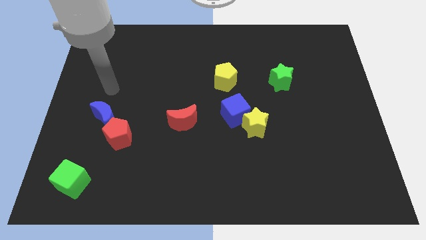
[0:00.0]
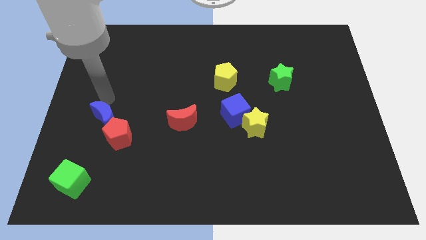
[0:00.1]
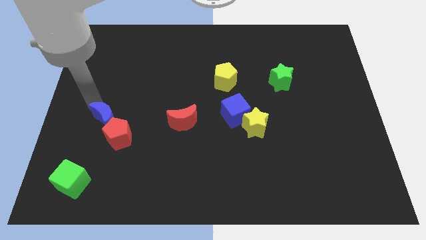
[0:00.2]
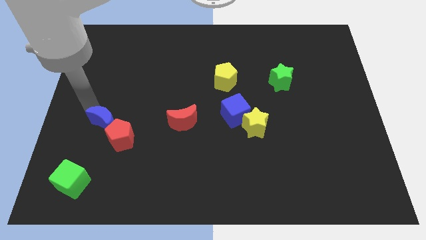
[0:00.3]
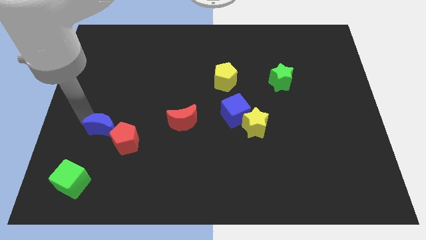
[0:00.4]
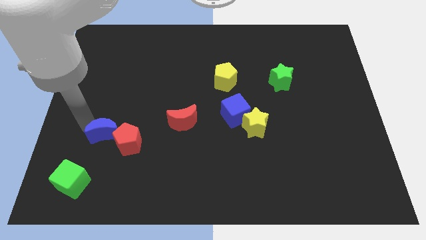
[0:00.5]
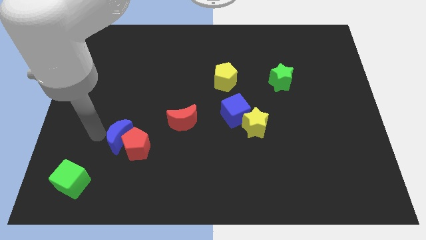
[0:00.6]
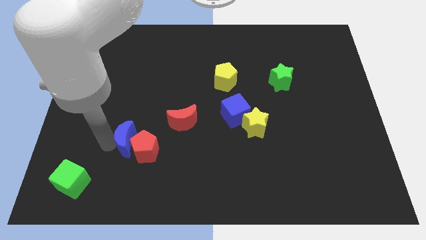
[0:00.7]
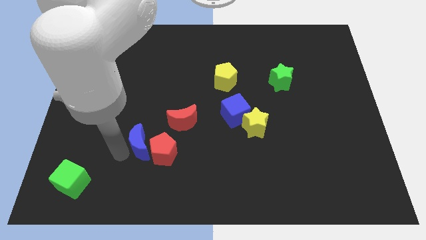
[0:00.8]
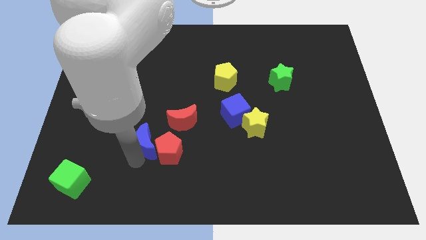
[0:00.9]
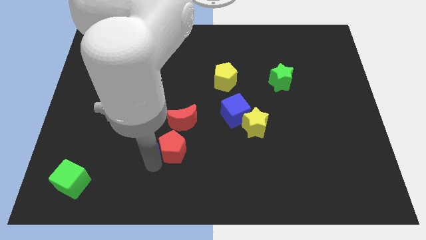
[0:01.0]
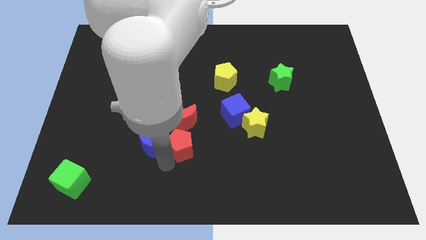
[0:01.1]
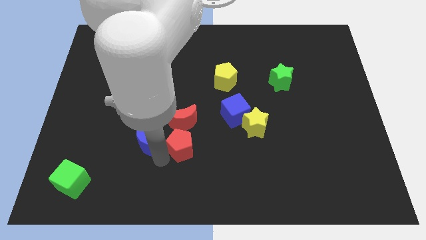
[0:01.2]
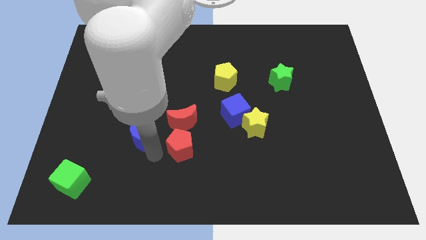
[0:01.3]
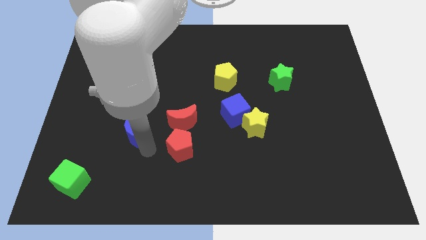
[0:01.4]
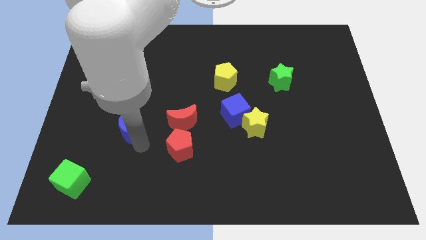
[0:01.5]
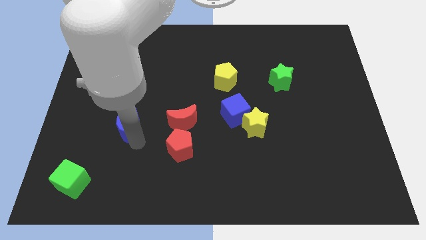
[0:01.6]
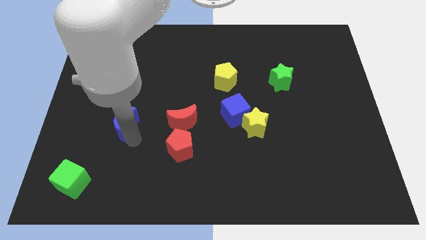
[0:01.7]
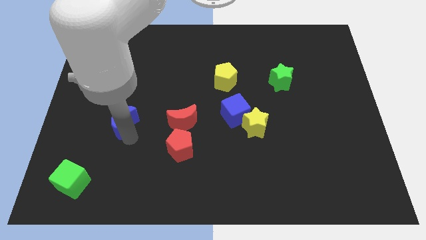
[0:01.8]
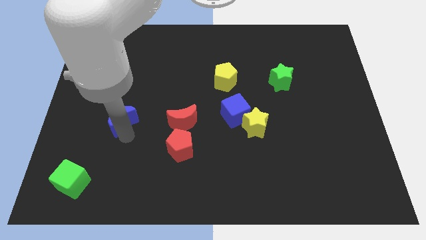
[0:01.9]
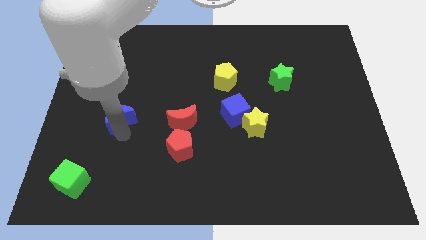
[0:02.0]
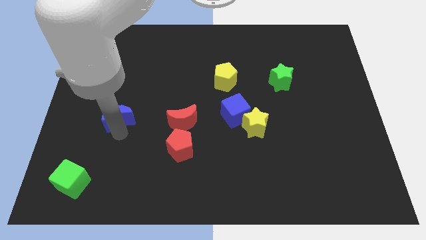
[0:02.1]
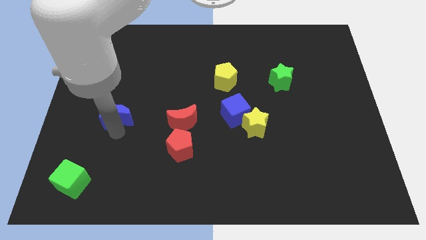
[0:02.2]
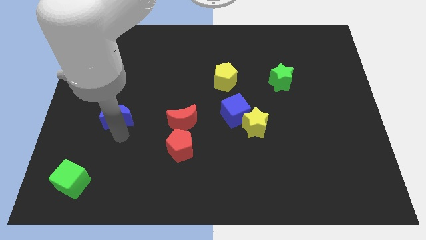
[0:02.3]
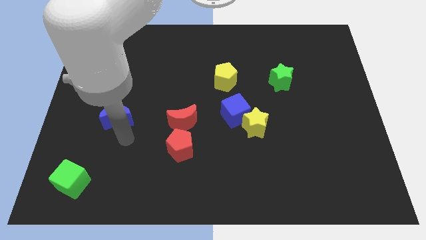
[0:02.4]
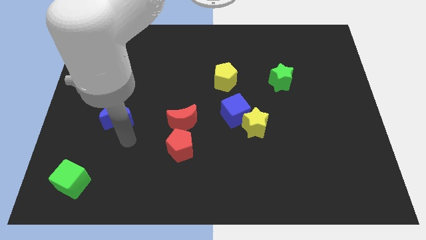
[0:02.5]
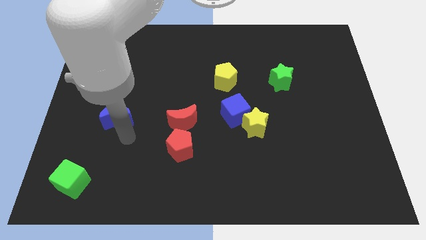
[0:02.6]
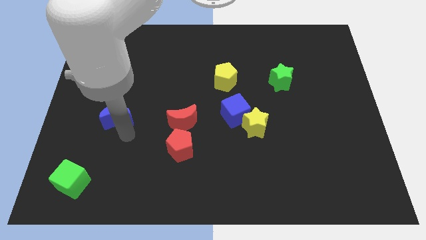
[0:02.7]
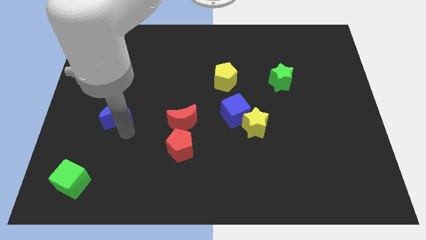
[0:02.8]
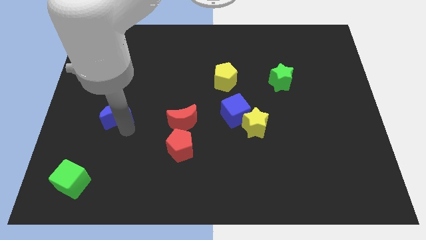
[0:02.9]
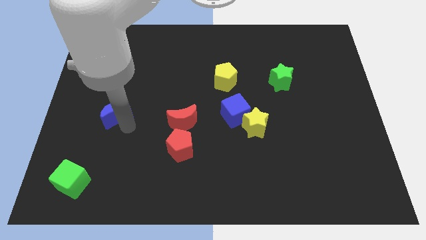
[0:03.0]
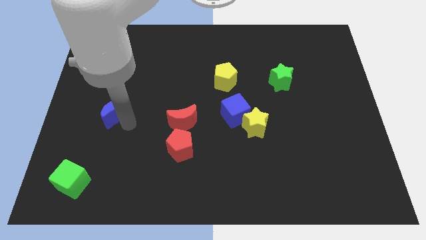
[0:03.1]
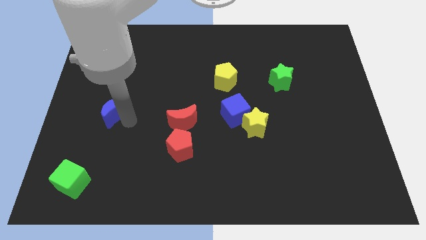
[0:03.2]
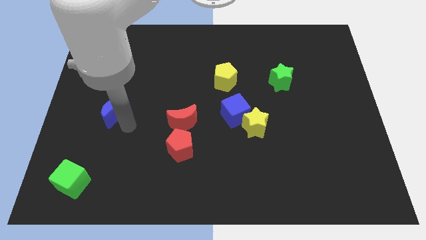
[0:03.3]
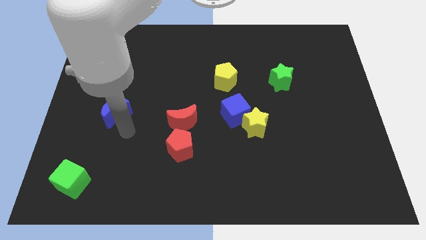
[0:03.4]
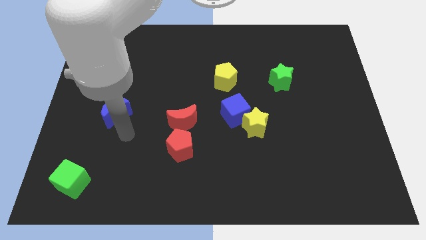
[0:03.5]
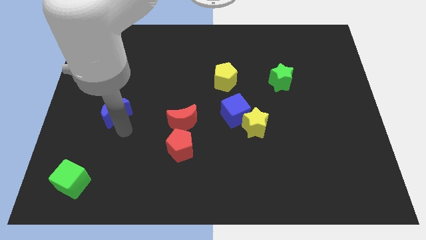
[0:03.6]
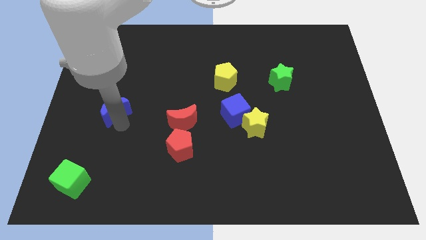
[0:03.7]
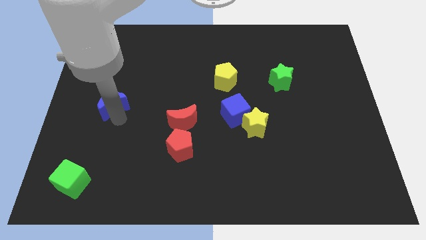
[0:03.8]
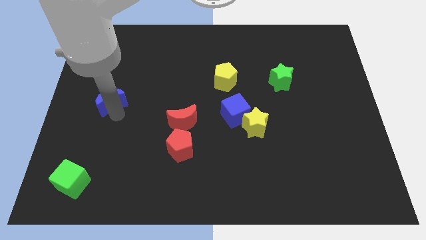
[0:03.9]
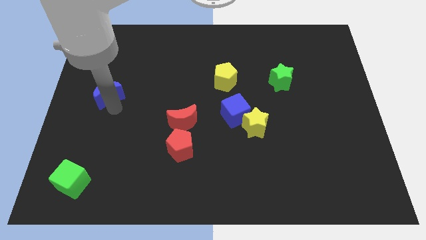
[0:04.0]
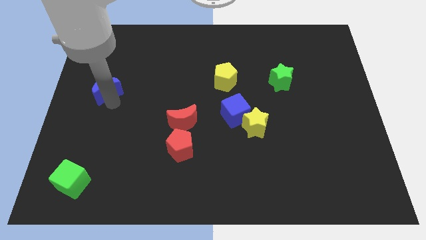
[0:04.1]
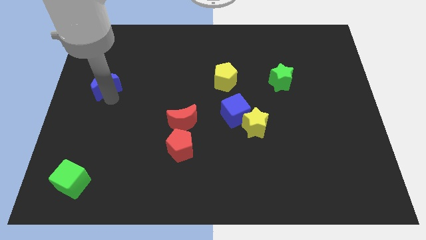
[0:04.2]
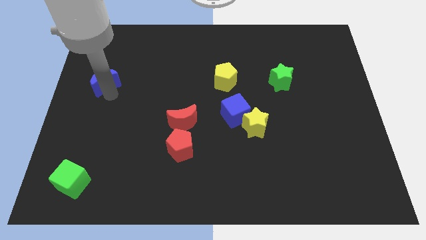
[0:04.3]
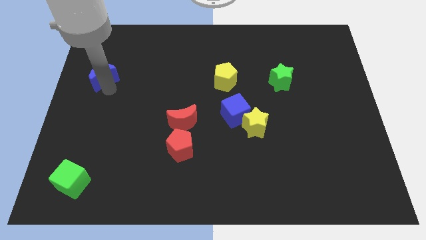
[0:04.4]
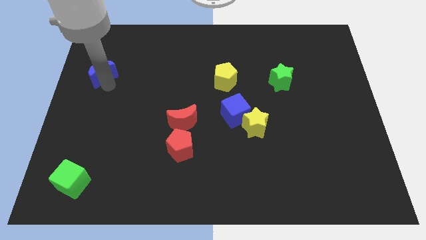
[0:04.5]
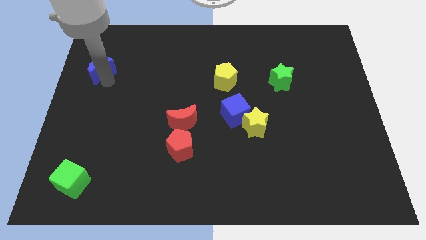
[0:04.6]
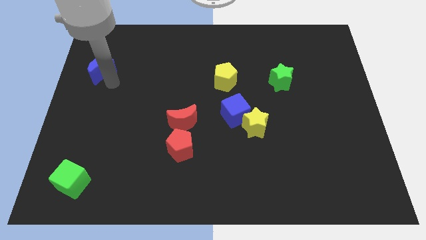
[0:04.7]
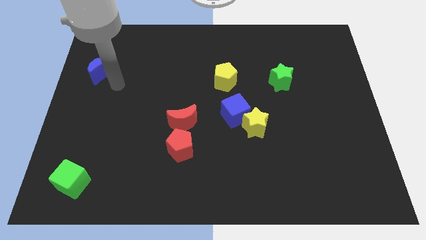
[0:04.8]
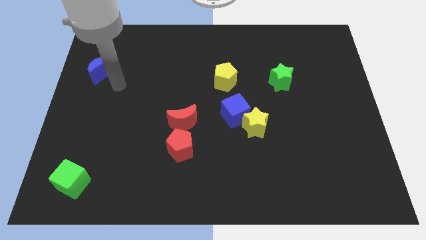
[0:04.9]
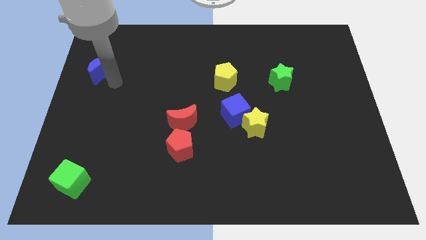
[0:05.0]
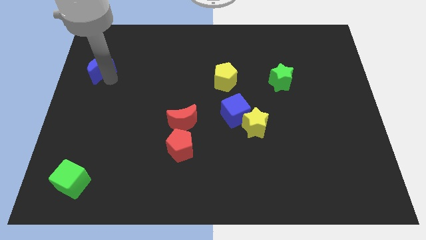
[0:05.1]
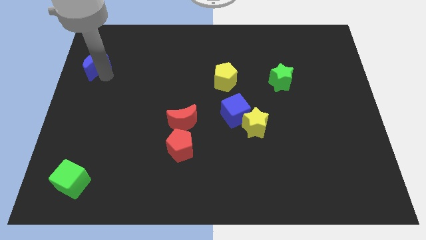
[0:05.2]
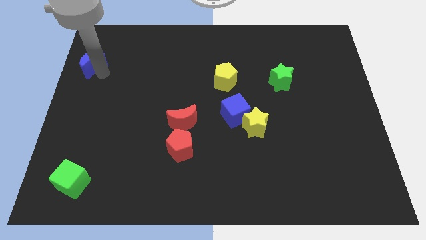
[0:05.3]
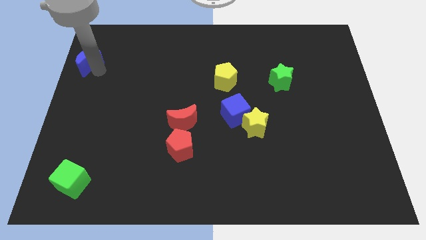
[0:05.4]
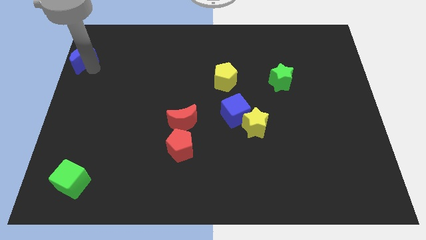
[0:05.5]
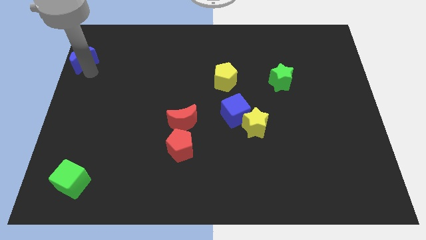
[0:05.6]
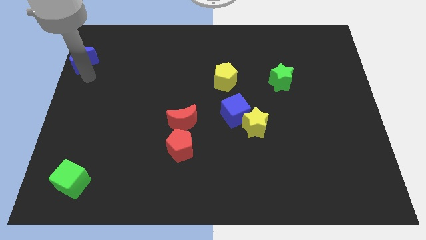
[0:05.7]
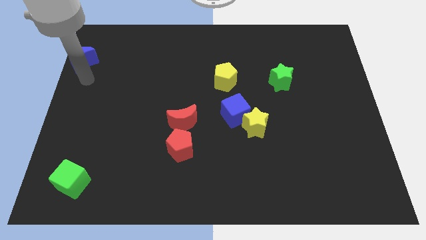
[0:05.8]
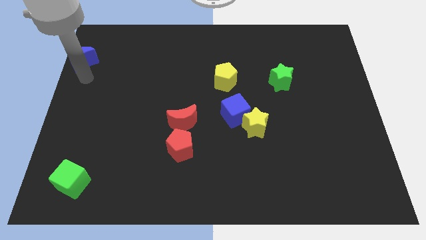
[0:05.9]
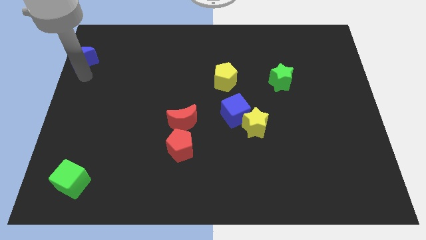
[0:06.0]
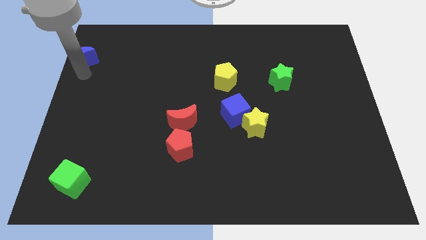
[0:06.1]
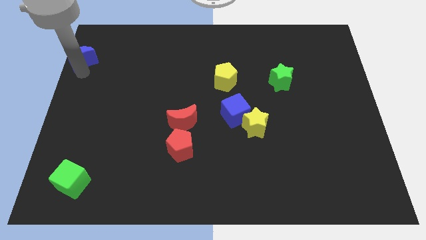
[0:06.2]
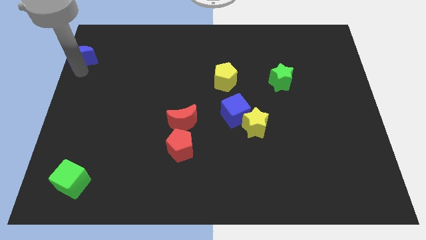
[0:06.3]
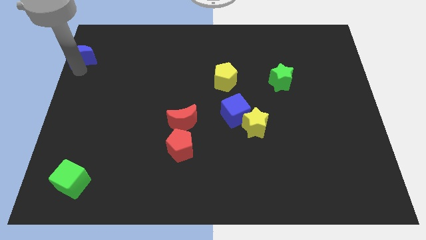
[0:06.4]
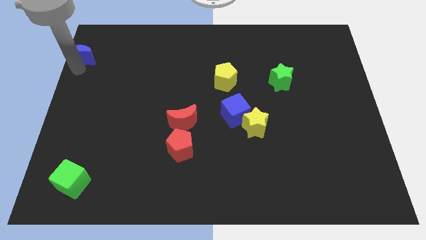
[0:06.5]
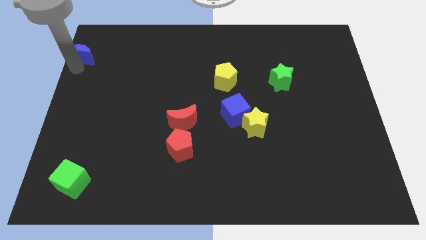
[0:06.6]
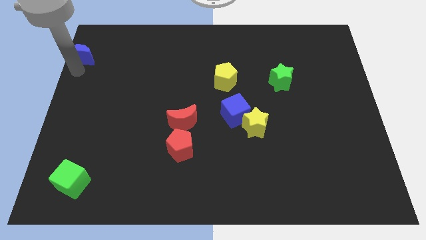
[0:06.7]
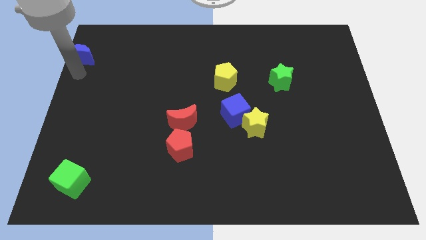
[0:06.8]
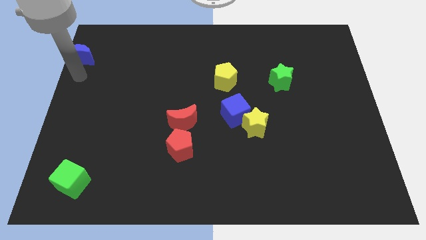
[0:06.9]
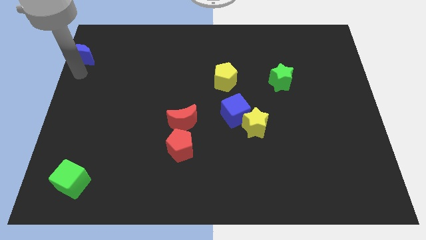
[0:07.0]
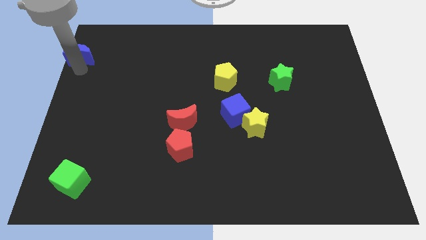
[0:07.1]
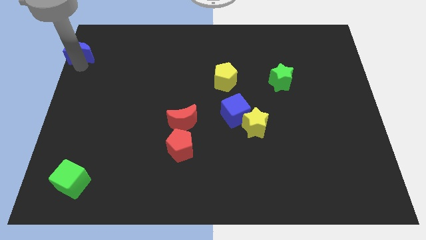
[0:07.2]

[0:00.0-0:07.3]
push the blue moon to the top left corner
